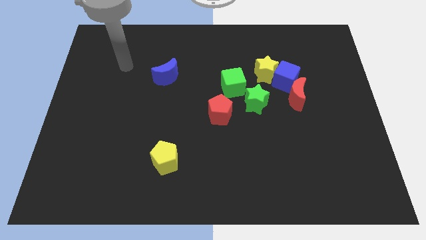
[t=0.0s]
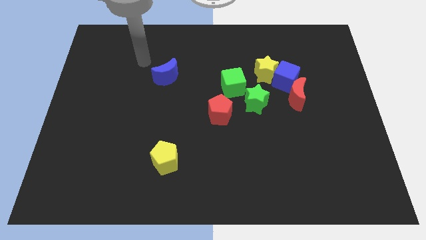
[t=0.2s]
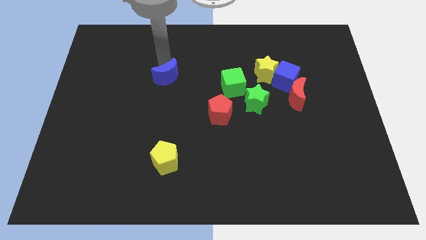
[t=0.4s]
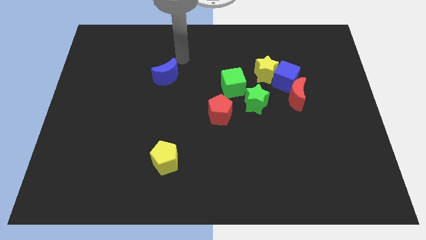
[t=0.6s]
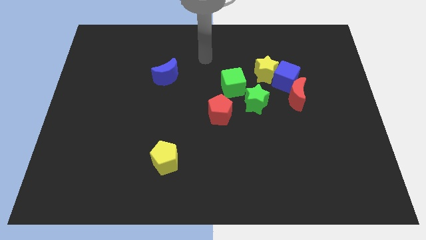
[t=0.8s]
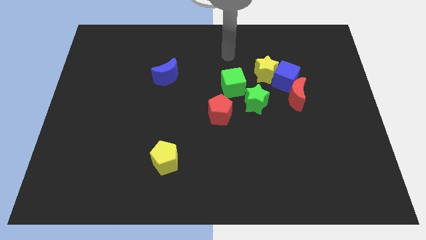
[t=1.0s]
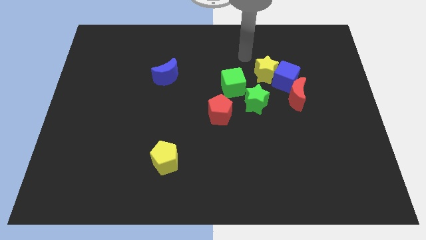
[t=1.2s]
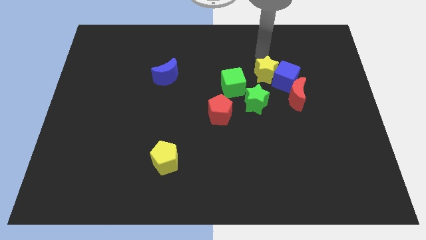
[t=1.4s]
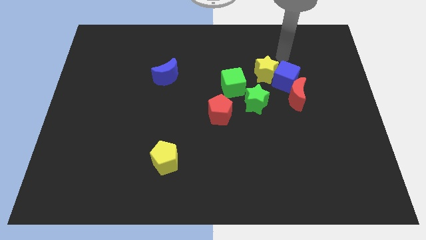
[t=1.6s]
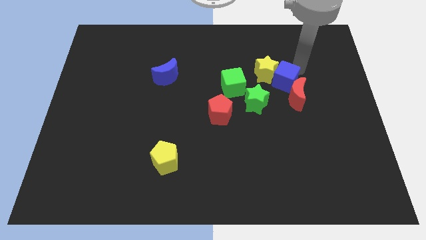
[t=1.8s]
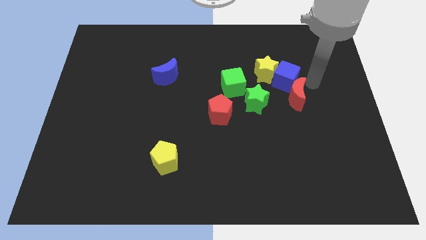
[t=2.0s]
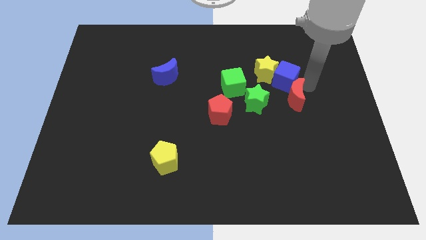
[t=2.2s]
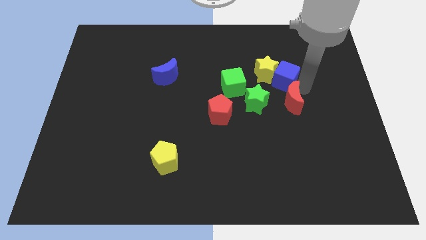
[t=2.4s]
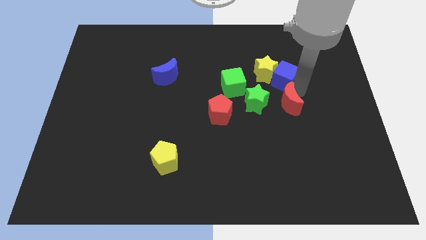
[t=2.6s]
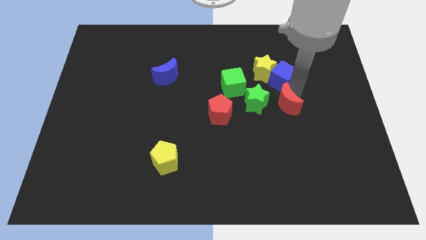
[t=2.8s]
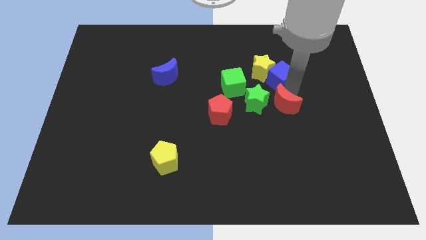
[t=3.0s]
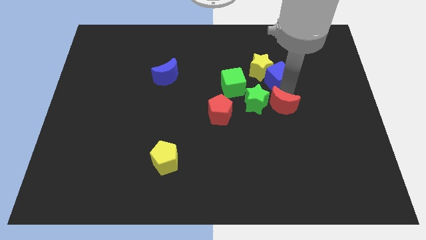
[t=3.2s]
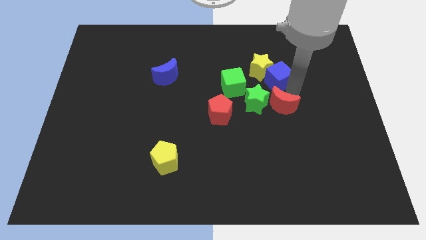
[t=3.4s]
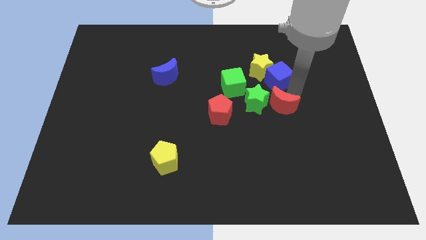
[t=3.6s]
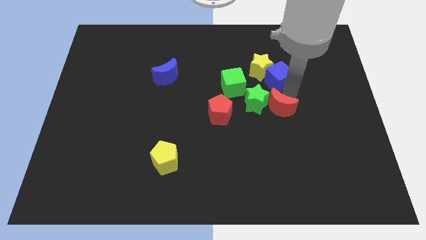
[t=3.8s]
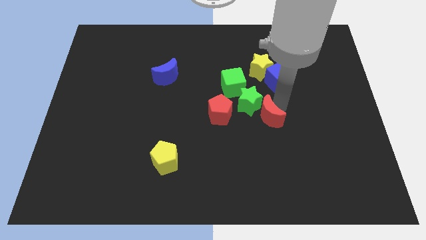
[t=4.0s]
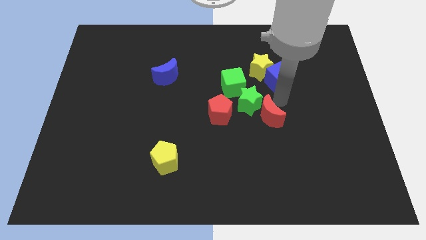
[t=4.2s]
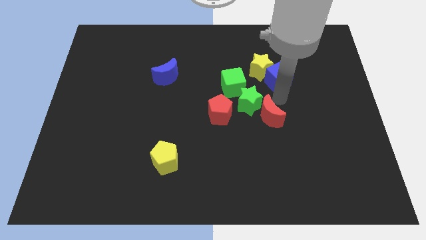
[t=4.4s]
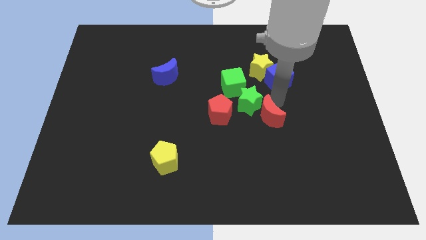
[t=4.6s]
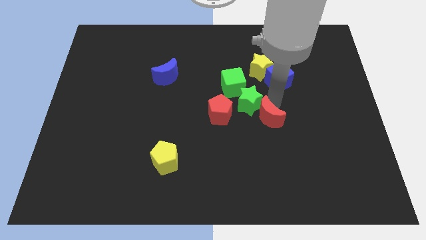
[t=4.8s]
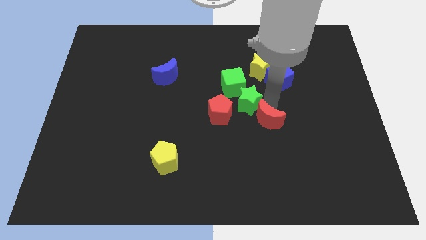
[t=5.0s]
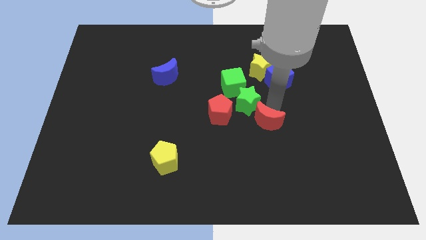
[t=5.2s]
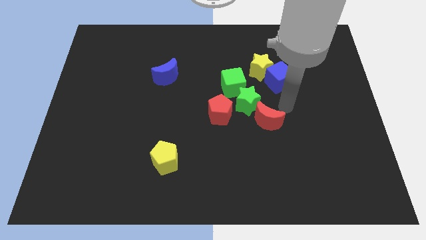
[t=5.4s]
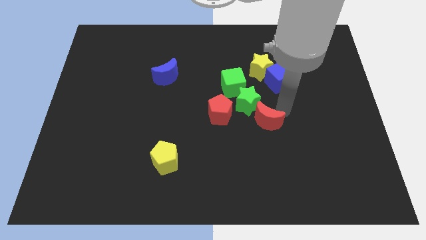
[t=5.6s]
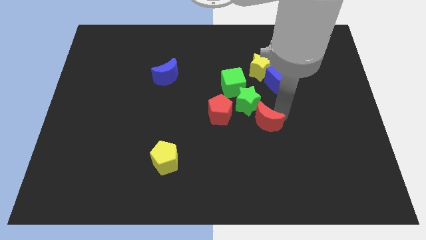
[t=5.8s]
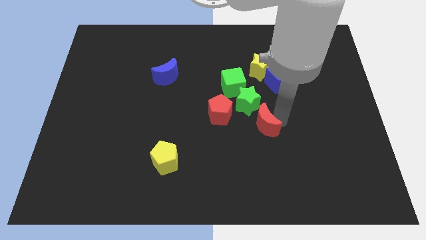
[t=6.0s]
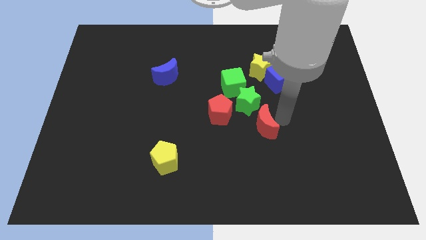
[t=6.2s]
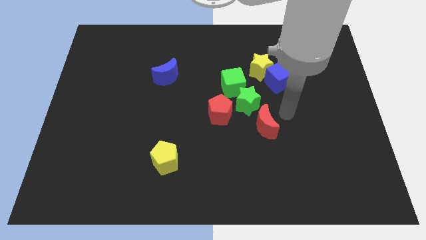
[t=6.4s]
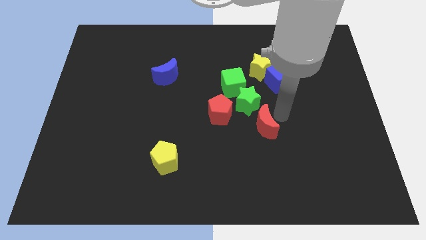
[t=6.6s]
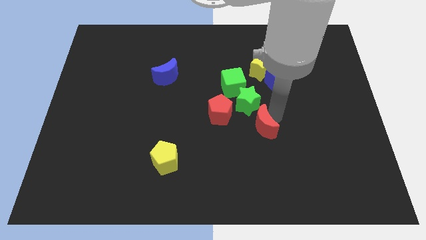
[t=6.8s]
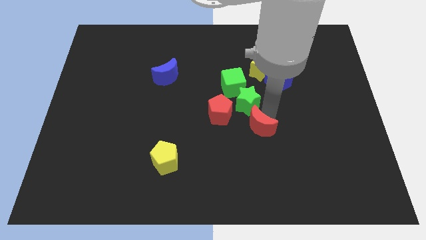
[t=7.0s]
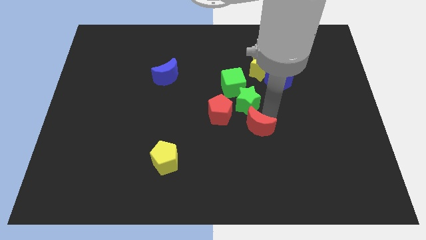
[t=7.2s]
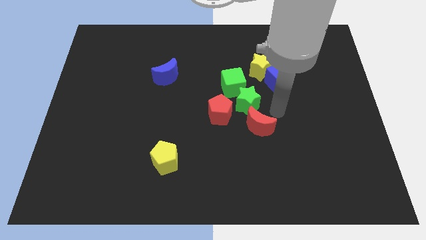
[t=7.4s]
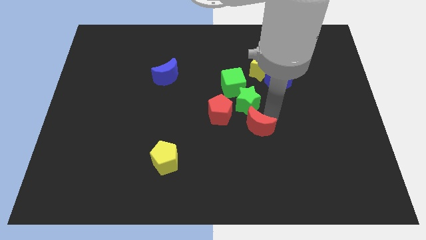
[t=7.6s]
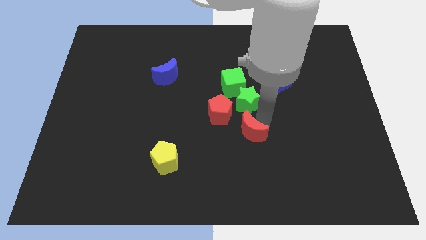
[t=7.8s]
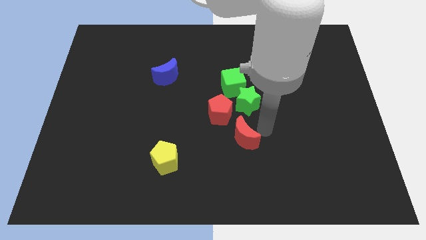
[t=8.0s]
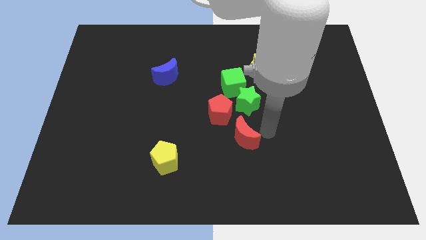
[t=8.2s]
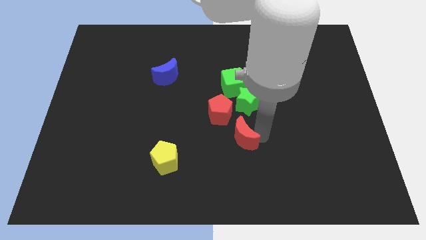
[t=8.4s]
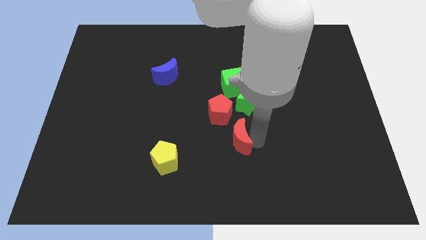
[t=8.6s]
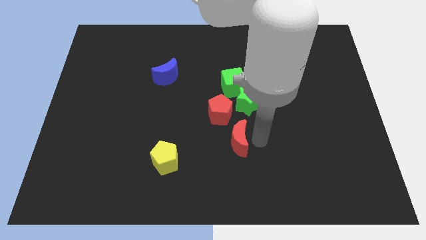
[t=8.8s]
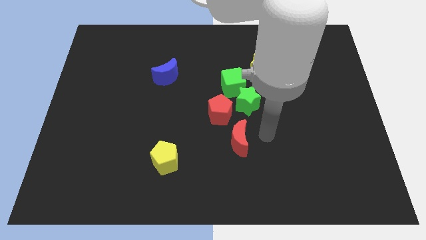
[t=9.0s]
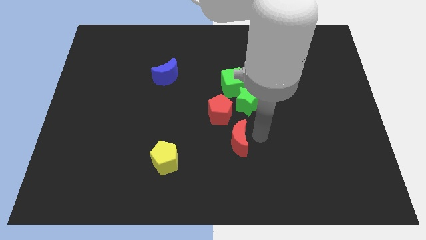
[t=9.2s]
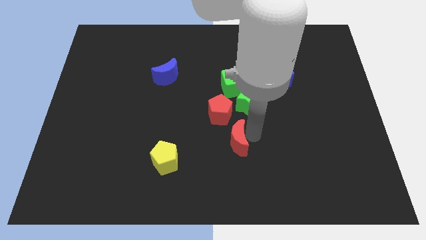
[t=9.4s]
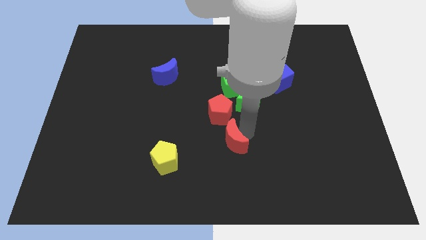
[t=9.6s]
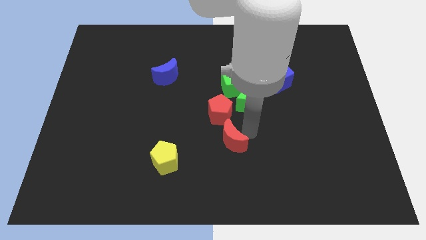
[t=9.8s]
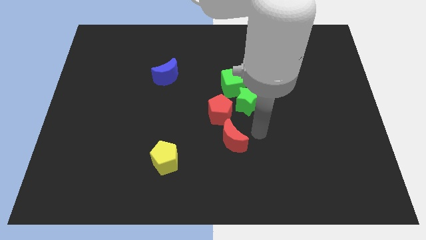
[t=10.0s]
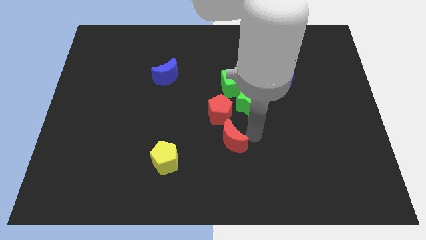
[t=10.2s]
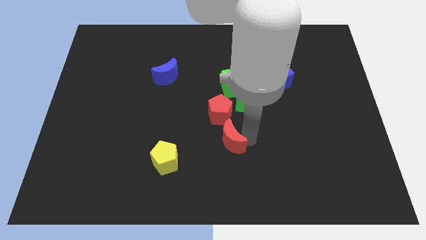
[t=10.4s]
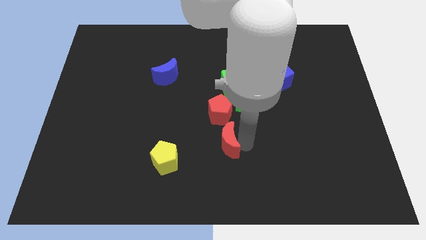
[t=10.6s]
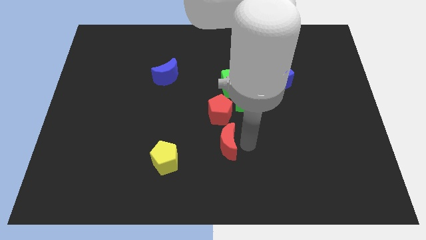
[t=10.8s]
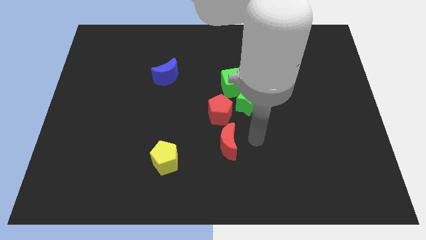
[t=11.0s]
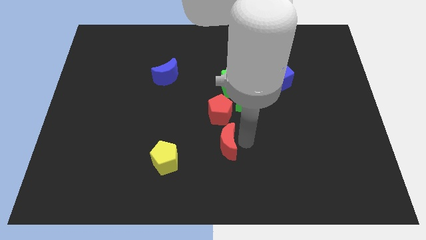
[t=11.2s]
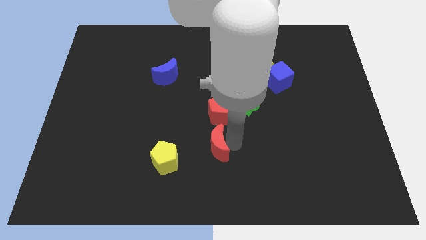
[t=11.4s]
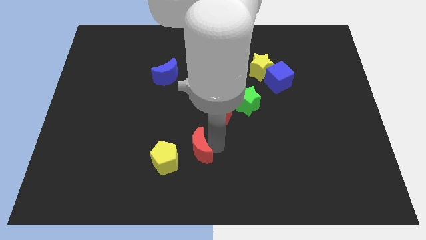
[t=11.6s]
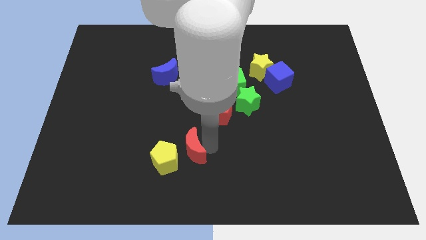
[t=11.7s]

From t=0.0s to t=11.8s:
move the red moon to the yellow pentagon

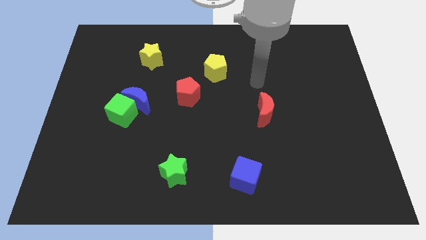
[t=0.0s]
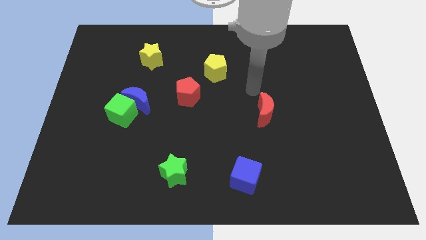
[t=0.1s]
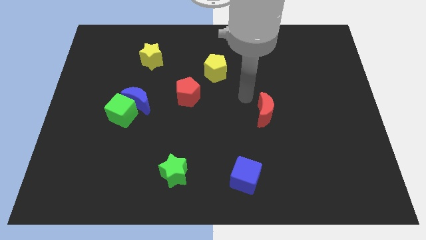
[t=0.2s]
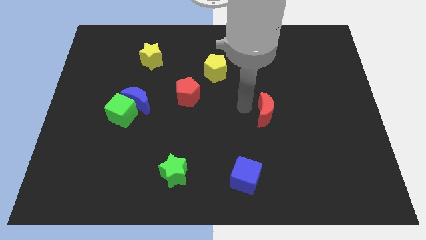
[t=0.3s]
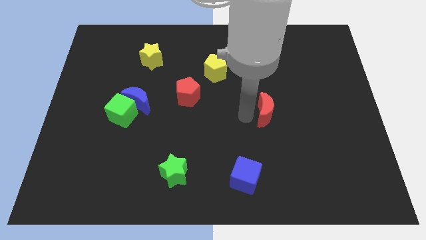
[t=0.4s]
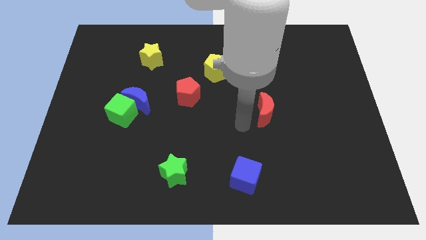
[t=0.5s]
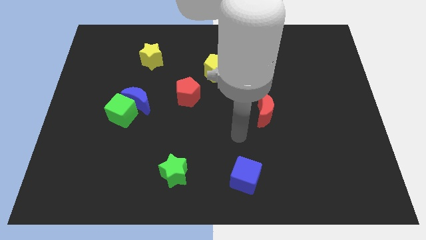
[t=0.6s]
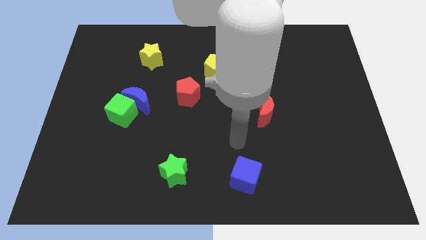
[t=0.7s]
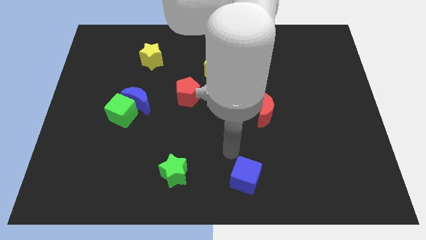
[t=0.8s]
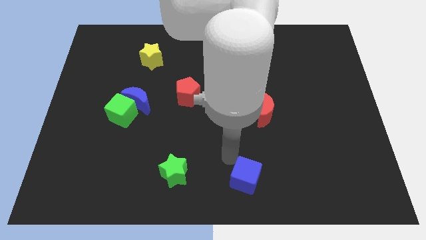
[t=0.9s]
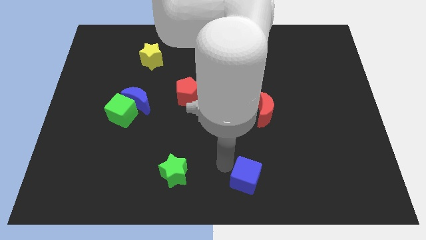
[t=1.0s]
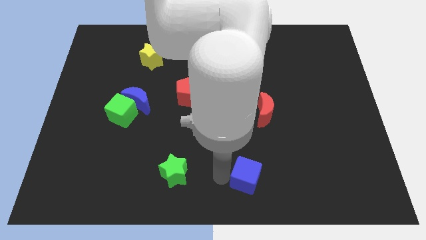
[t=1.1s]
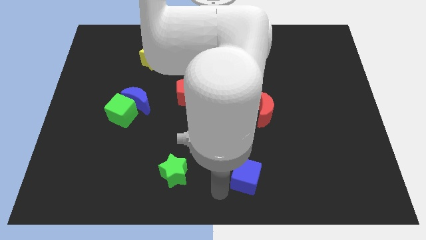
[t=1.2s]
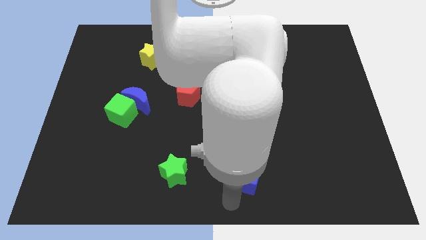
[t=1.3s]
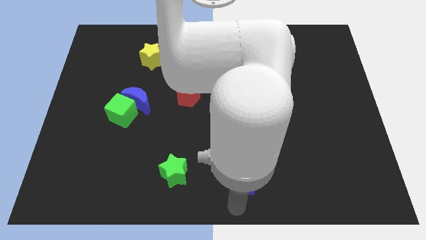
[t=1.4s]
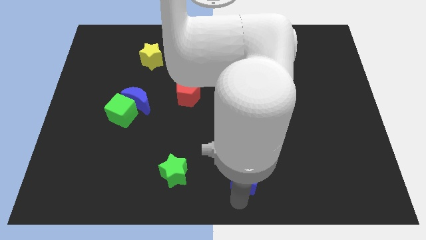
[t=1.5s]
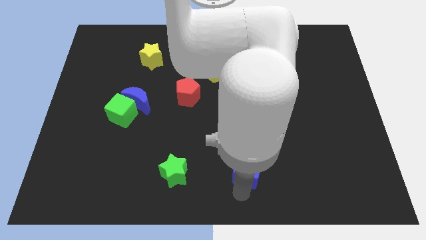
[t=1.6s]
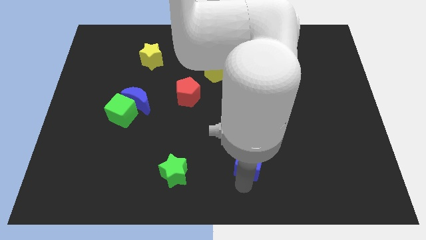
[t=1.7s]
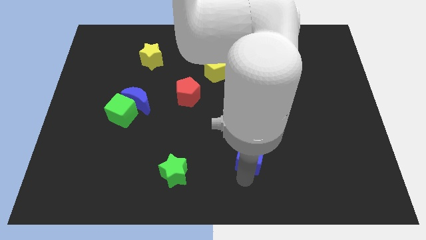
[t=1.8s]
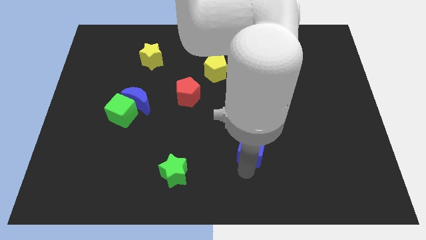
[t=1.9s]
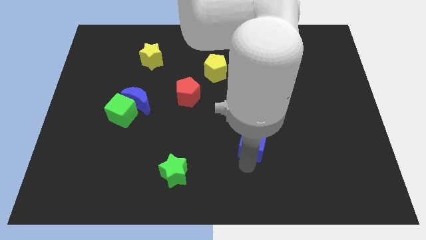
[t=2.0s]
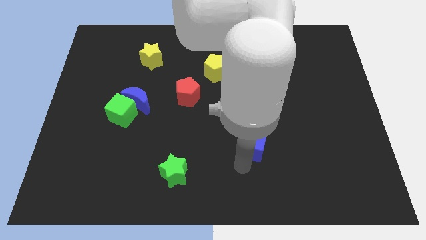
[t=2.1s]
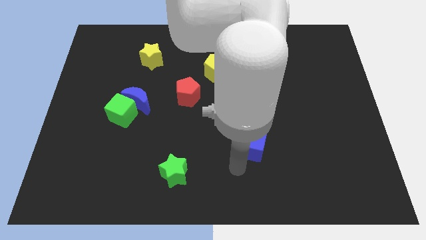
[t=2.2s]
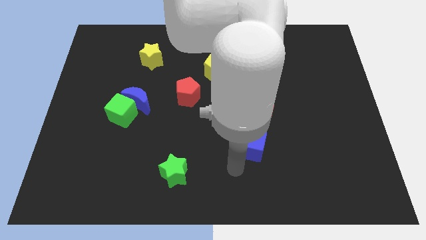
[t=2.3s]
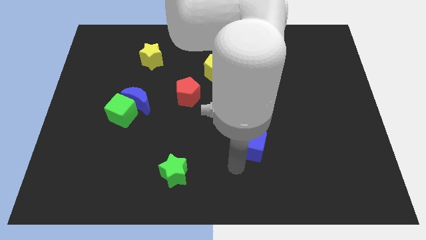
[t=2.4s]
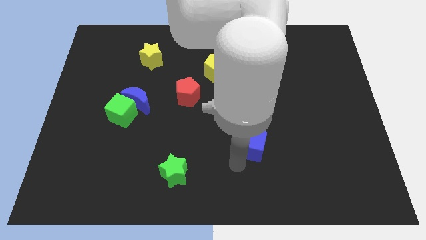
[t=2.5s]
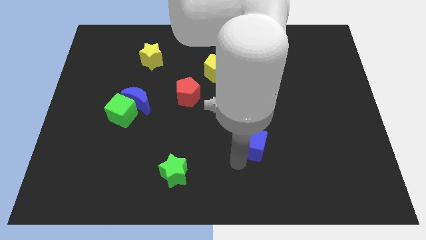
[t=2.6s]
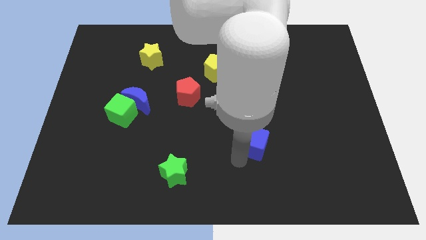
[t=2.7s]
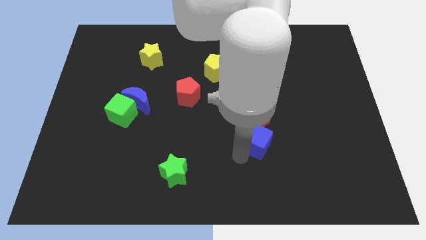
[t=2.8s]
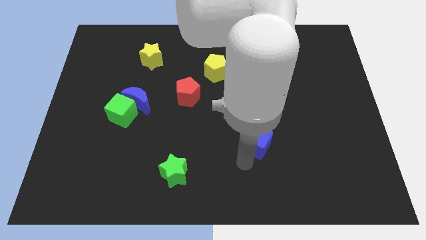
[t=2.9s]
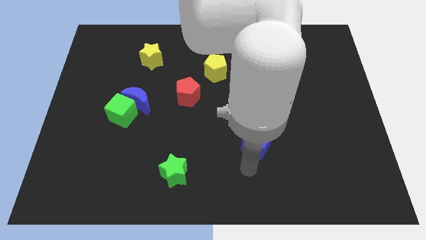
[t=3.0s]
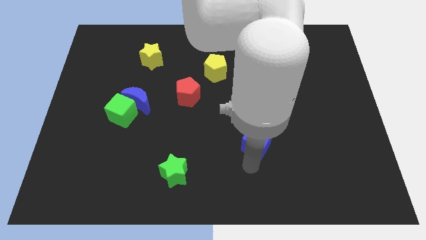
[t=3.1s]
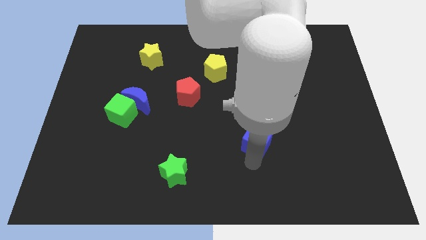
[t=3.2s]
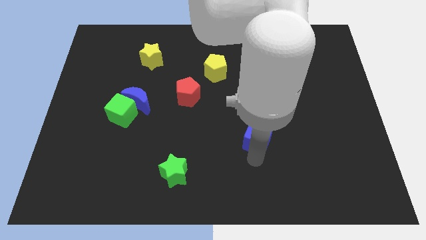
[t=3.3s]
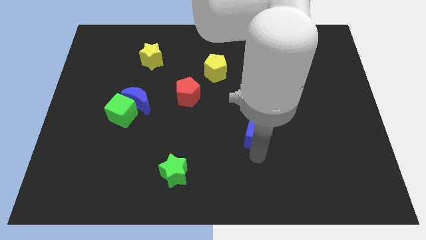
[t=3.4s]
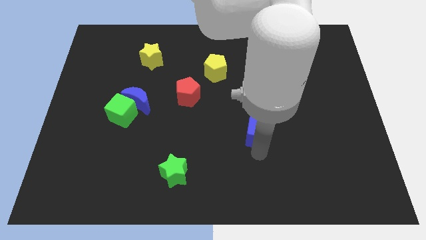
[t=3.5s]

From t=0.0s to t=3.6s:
move the blue cube close to the red moon
